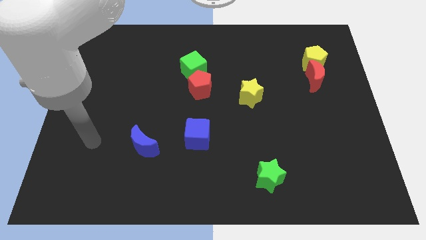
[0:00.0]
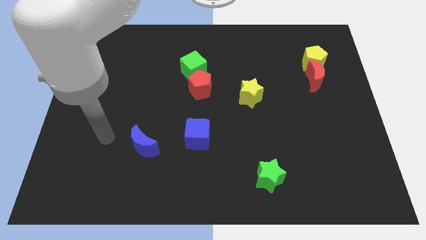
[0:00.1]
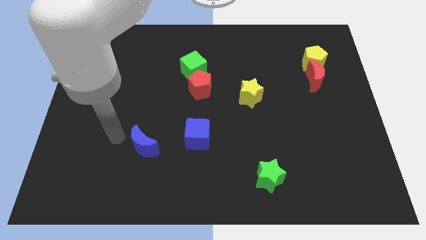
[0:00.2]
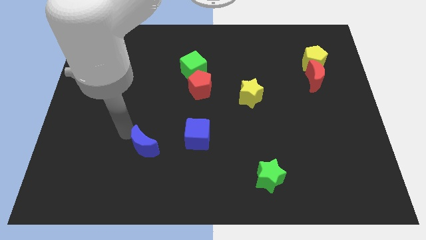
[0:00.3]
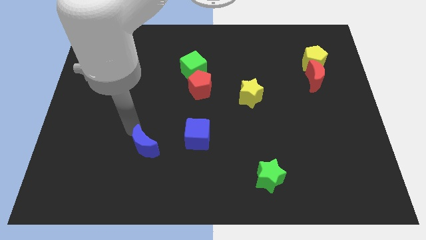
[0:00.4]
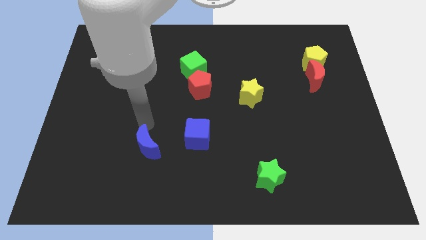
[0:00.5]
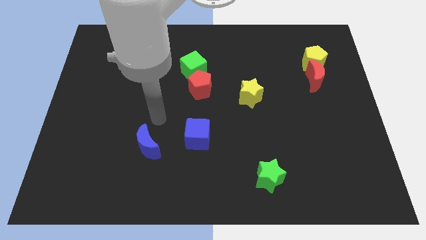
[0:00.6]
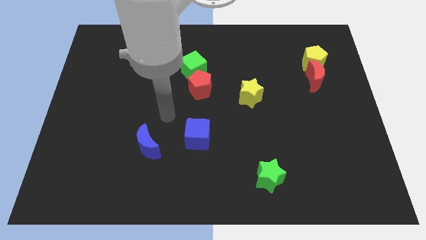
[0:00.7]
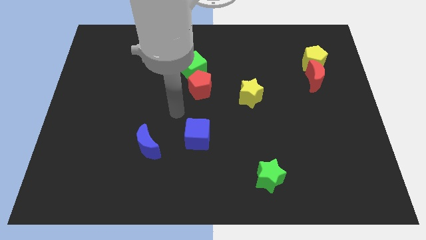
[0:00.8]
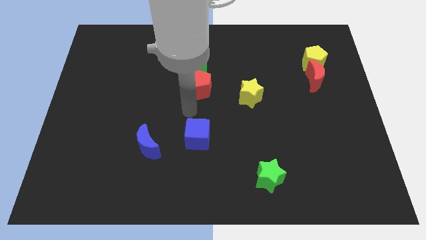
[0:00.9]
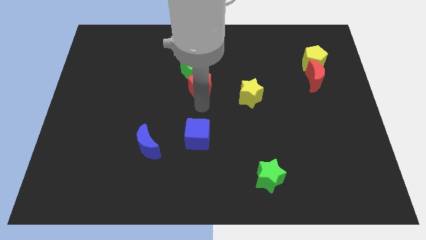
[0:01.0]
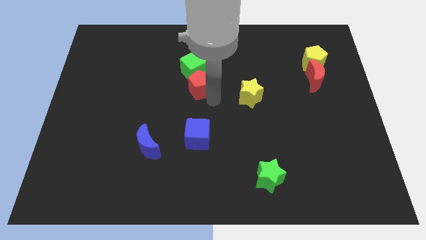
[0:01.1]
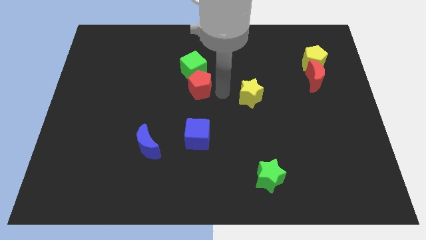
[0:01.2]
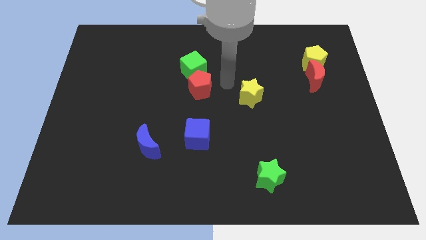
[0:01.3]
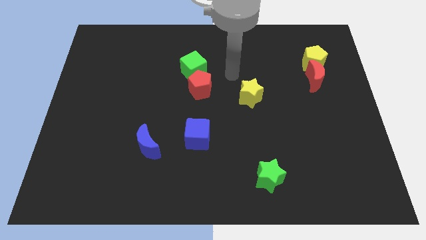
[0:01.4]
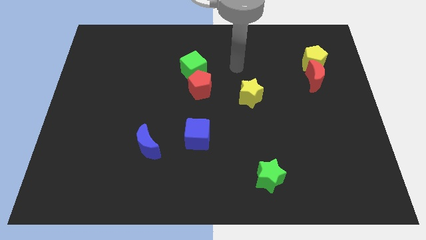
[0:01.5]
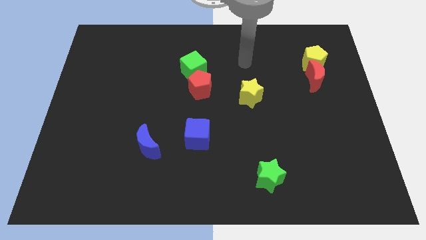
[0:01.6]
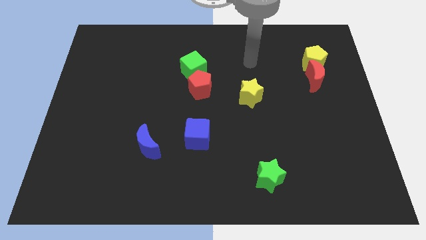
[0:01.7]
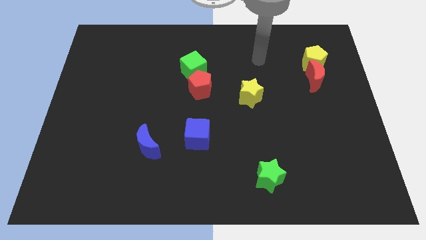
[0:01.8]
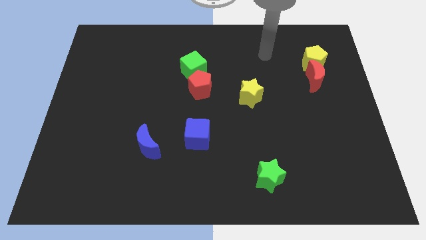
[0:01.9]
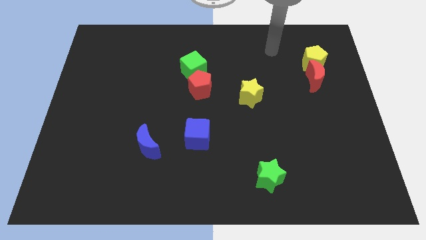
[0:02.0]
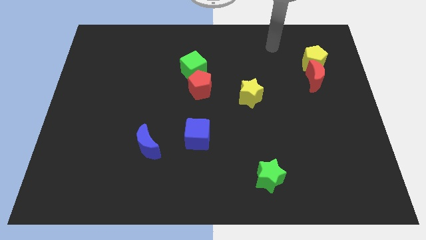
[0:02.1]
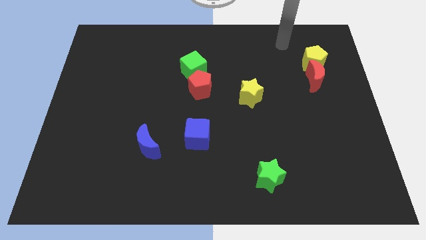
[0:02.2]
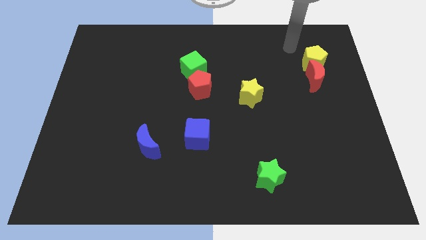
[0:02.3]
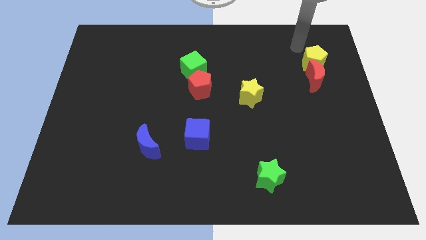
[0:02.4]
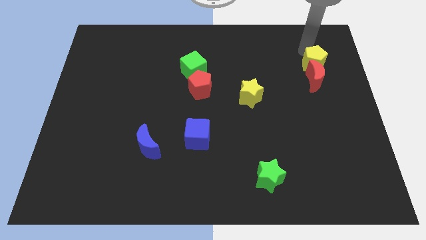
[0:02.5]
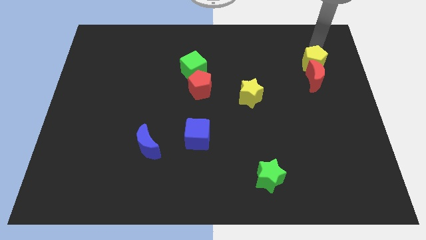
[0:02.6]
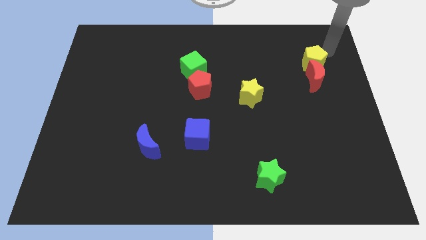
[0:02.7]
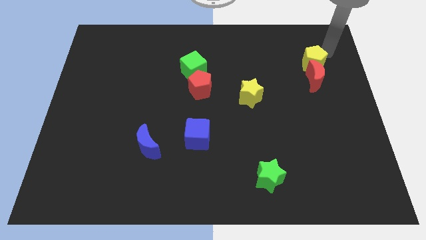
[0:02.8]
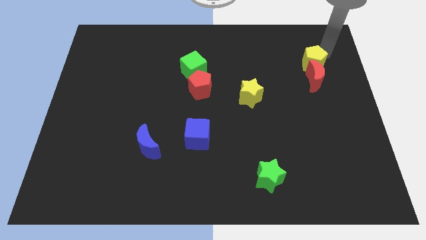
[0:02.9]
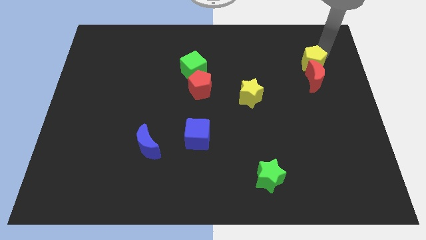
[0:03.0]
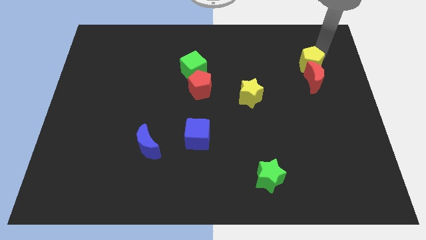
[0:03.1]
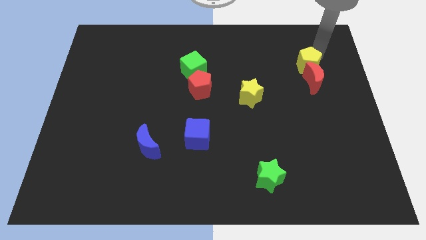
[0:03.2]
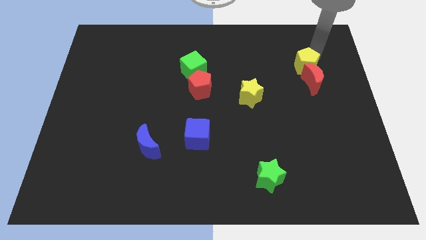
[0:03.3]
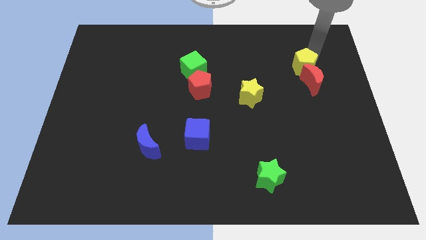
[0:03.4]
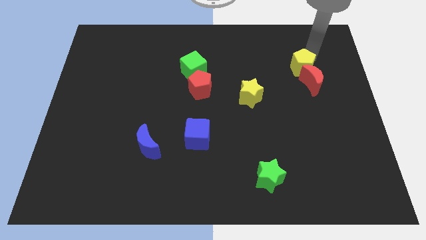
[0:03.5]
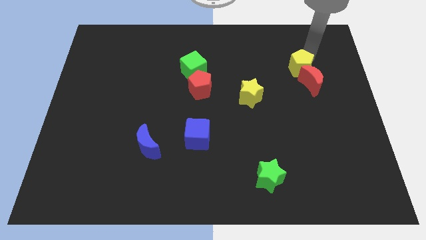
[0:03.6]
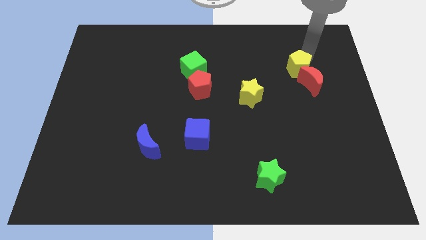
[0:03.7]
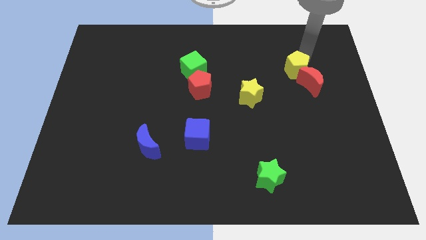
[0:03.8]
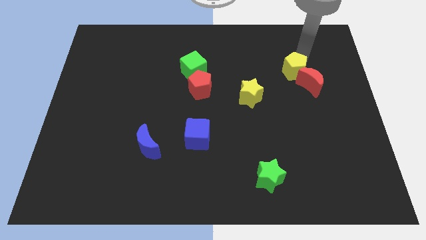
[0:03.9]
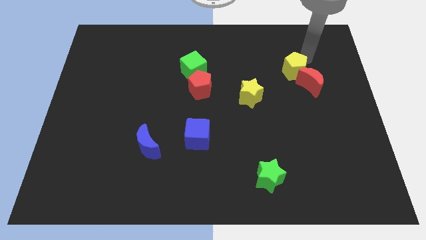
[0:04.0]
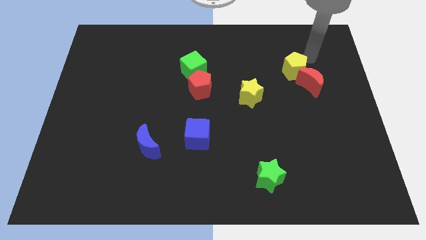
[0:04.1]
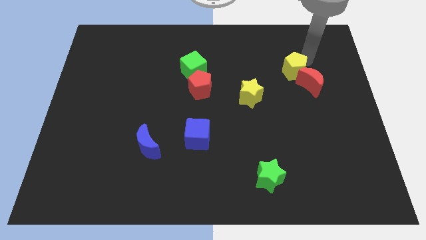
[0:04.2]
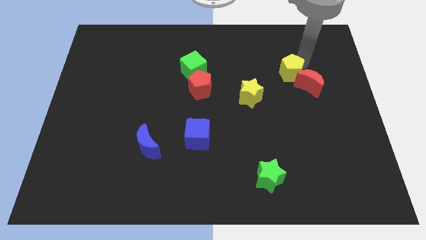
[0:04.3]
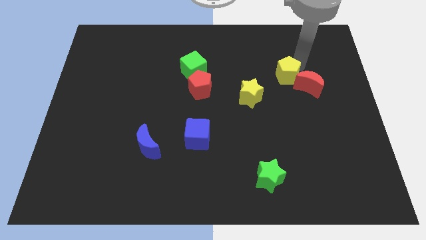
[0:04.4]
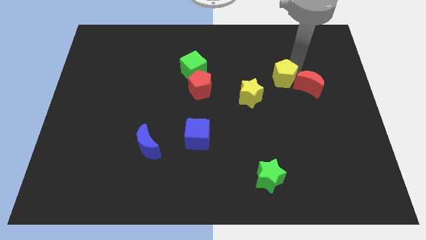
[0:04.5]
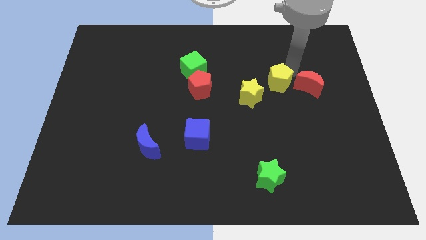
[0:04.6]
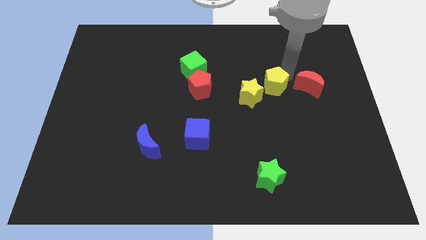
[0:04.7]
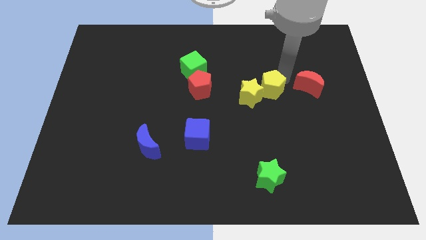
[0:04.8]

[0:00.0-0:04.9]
push the yellow pentagon close to the yellow star

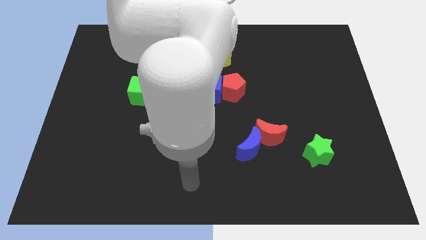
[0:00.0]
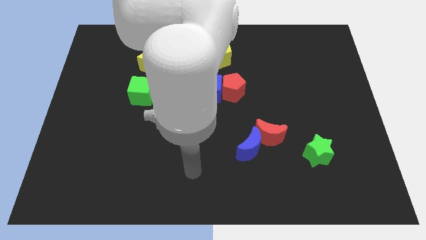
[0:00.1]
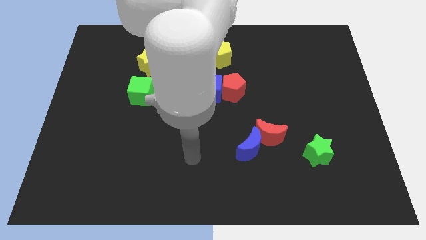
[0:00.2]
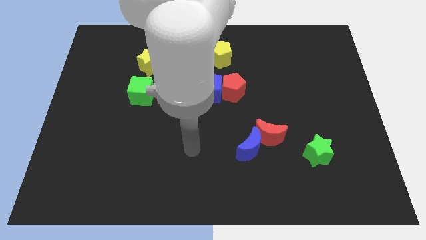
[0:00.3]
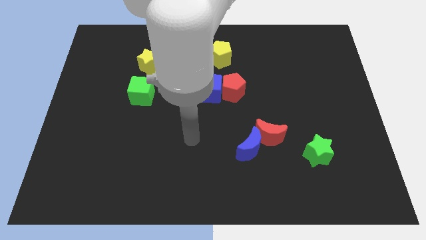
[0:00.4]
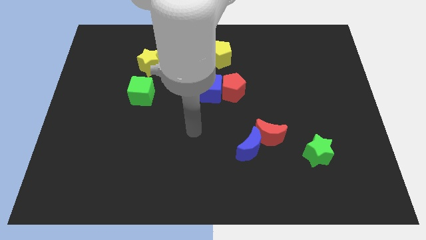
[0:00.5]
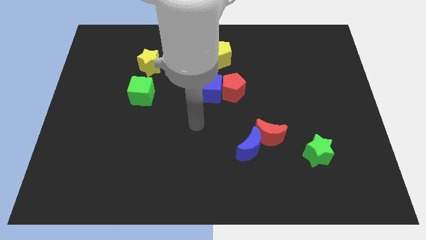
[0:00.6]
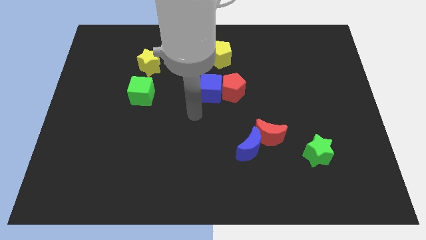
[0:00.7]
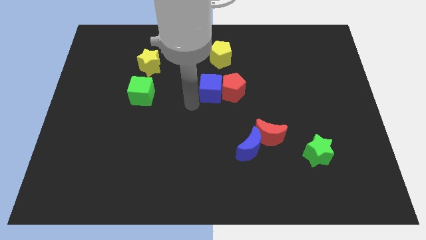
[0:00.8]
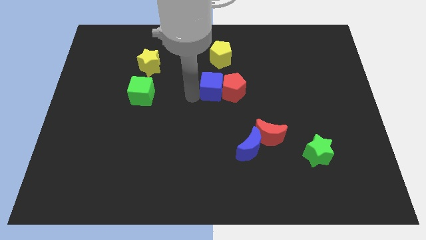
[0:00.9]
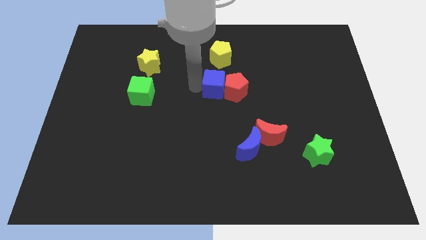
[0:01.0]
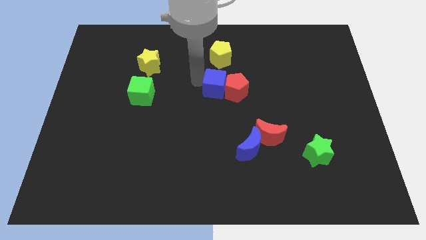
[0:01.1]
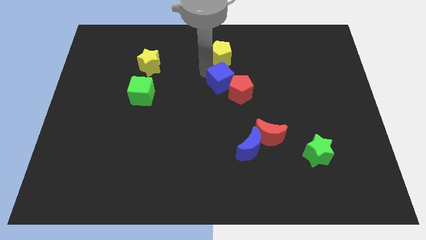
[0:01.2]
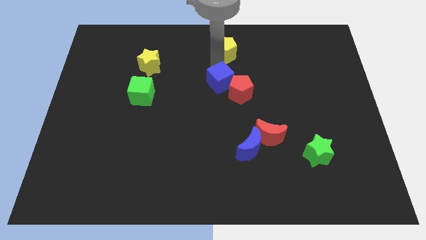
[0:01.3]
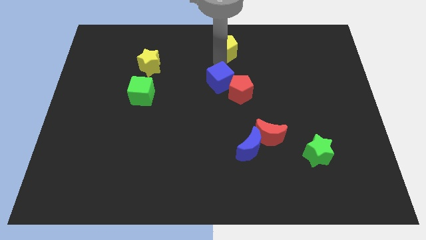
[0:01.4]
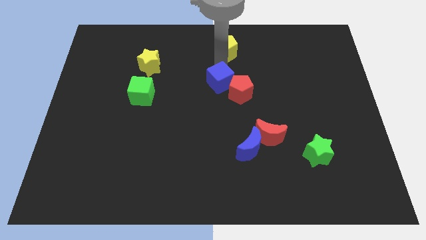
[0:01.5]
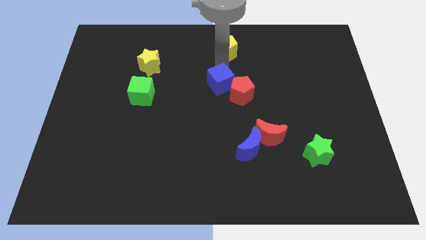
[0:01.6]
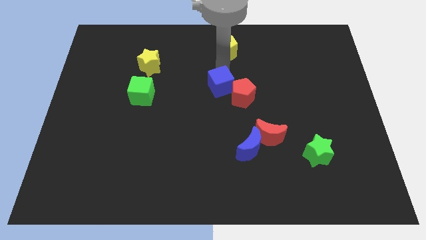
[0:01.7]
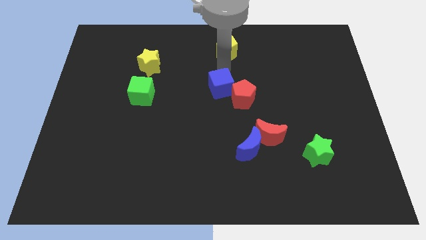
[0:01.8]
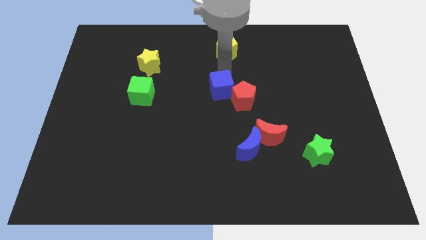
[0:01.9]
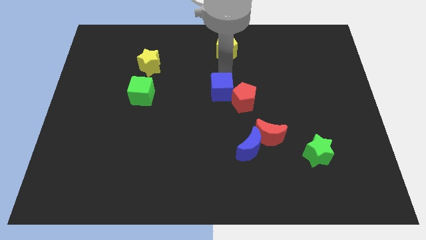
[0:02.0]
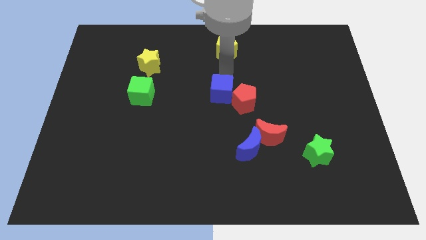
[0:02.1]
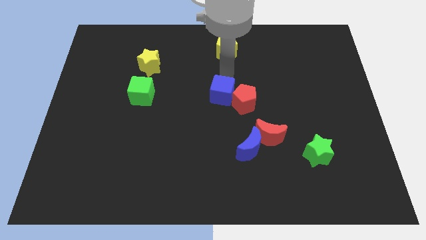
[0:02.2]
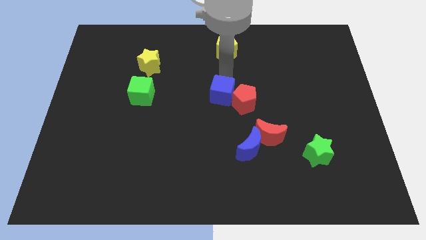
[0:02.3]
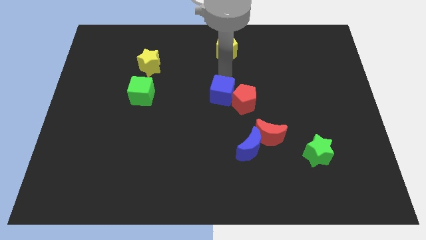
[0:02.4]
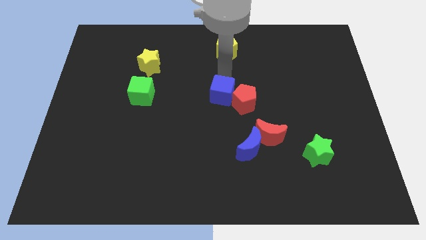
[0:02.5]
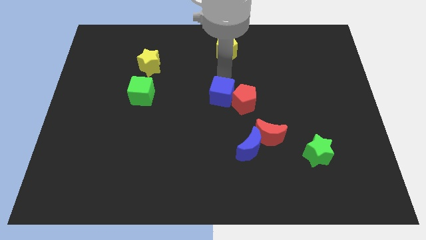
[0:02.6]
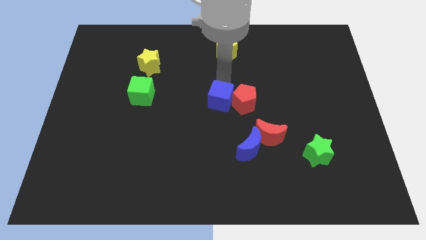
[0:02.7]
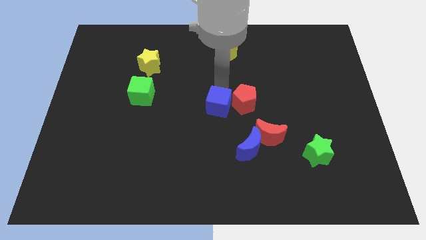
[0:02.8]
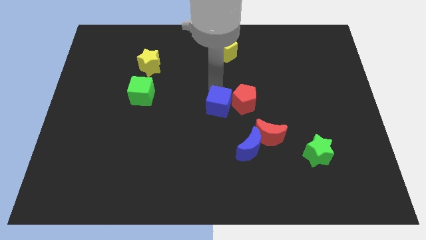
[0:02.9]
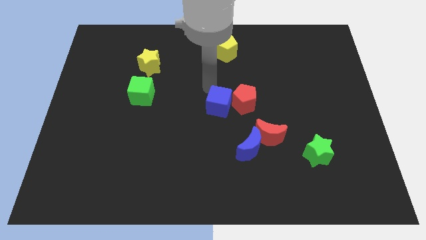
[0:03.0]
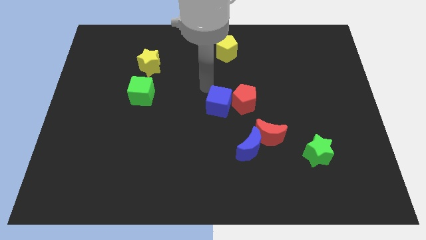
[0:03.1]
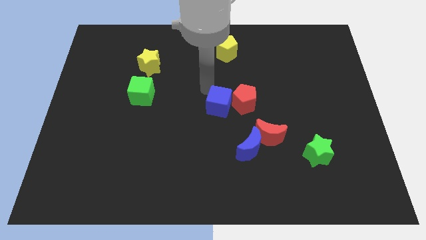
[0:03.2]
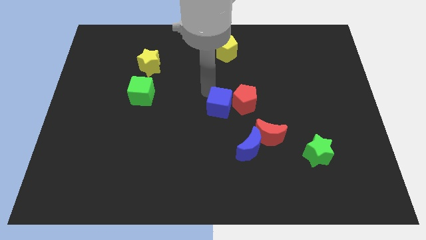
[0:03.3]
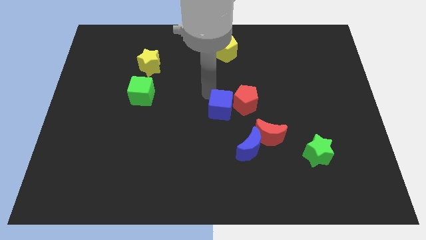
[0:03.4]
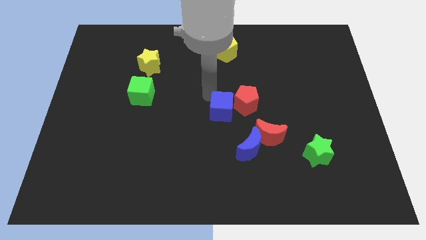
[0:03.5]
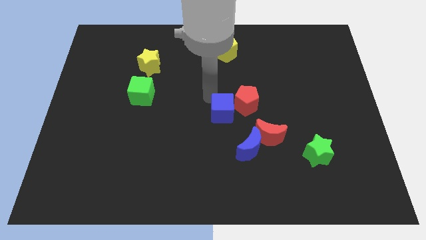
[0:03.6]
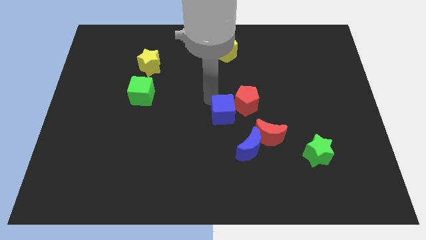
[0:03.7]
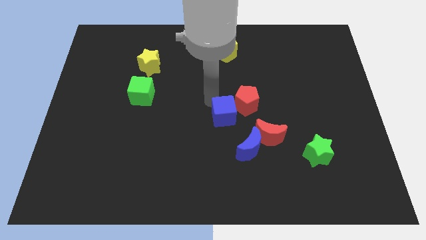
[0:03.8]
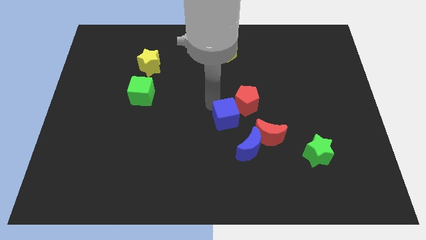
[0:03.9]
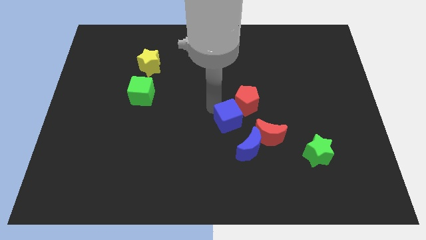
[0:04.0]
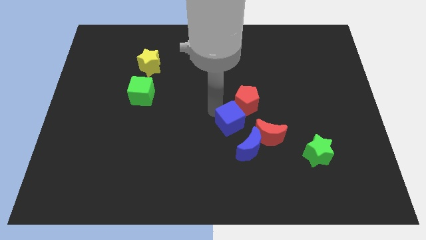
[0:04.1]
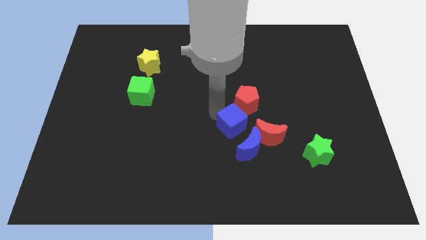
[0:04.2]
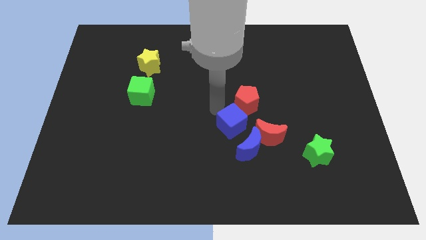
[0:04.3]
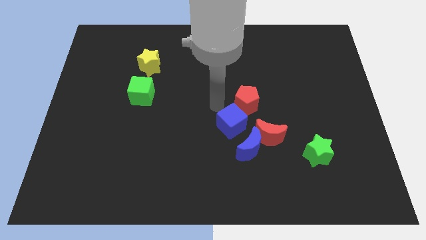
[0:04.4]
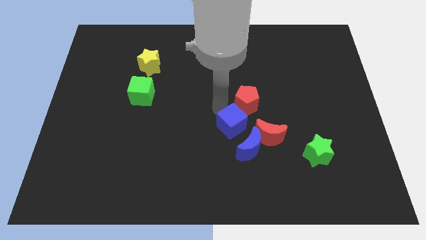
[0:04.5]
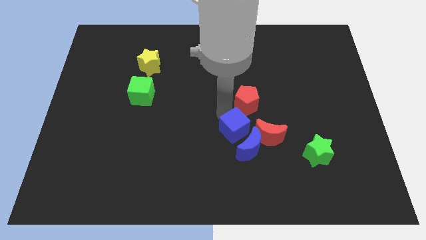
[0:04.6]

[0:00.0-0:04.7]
put the blue cube towards the blue moon
